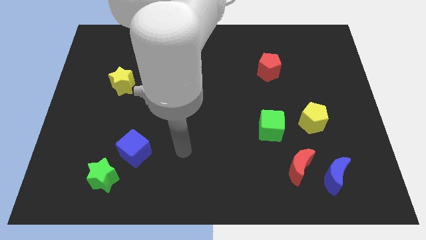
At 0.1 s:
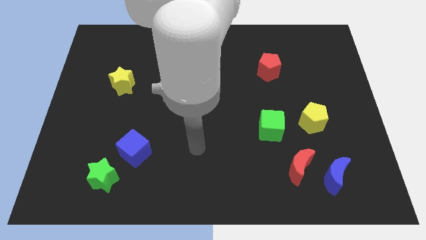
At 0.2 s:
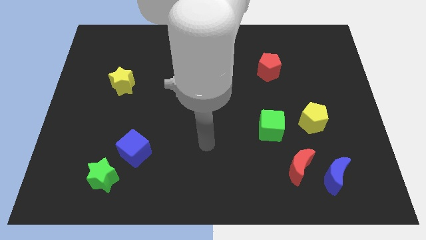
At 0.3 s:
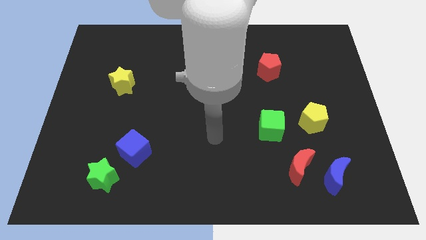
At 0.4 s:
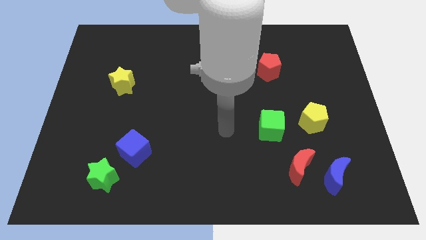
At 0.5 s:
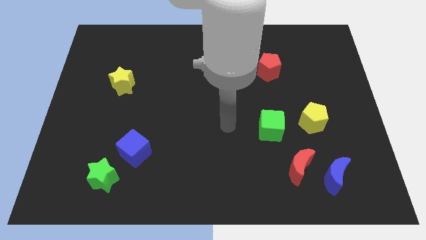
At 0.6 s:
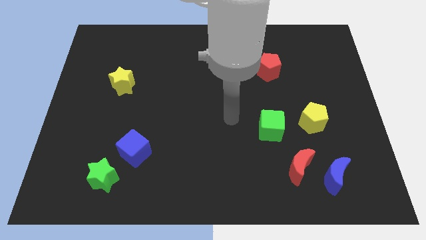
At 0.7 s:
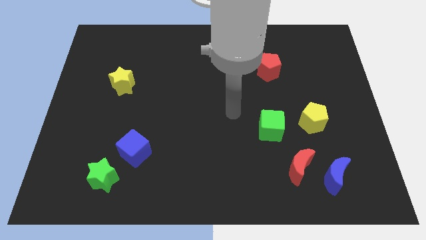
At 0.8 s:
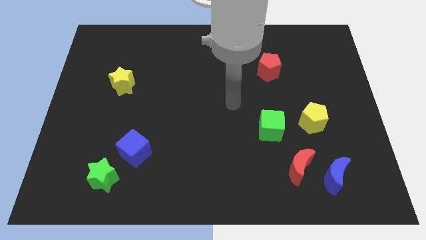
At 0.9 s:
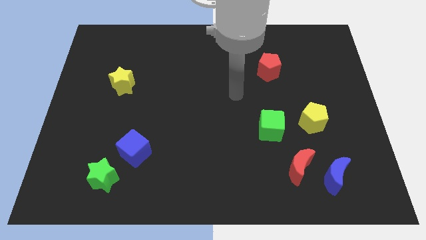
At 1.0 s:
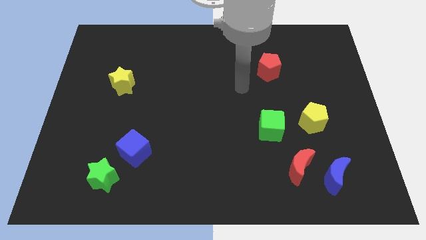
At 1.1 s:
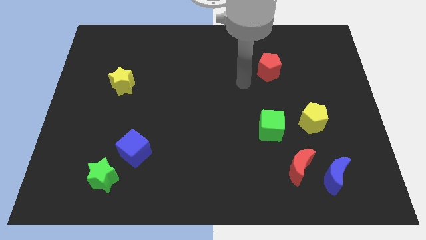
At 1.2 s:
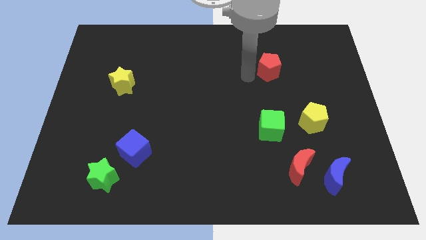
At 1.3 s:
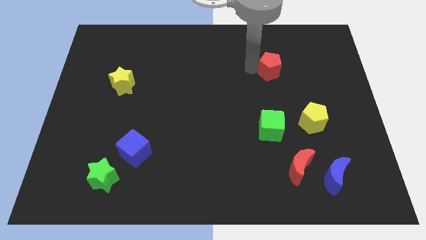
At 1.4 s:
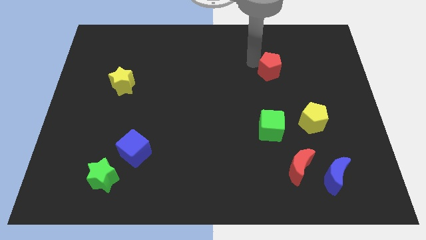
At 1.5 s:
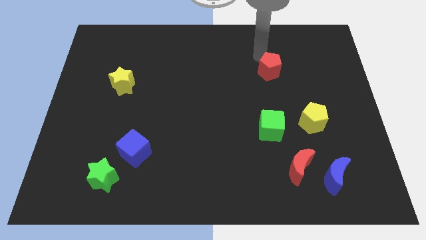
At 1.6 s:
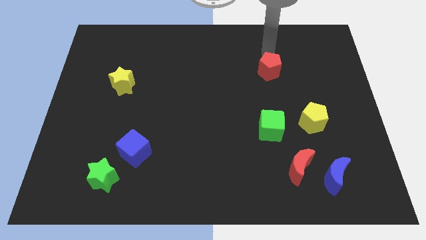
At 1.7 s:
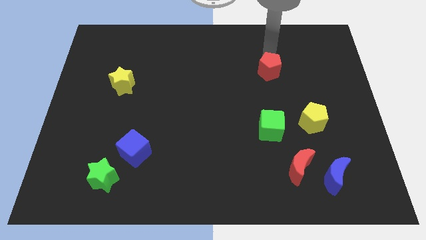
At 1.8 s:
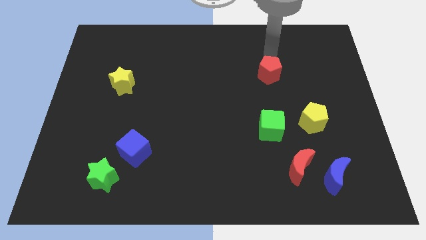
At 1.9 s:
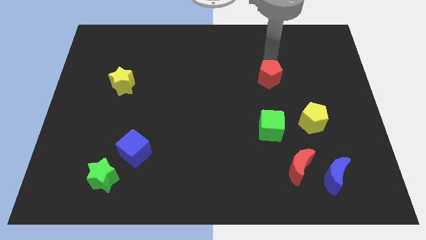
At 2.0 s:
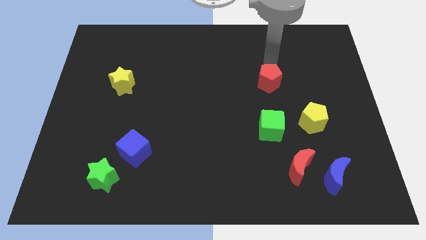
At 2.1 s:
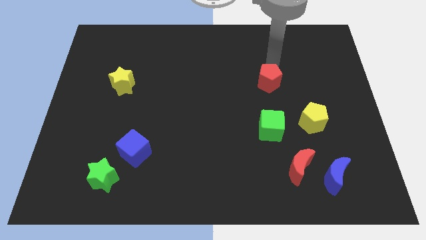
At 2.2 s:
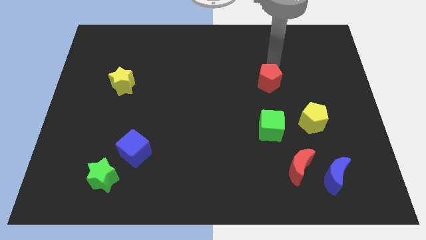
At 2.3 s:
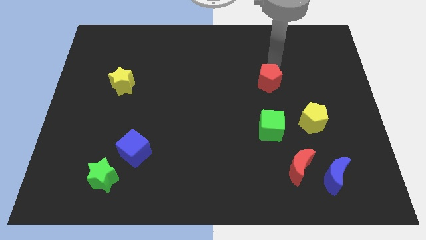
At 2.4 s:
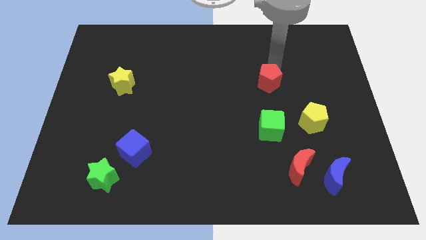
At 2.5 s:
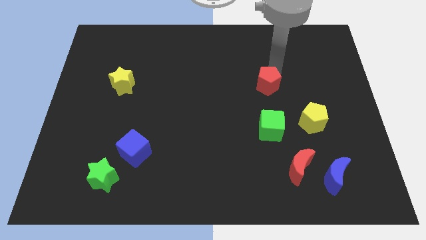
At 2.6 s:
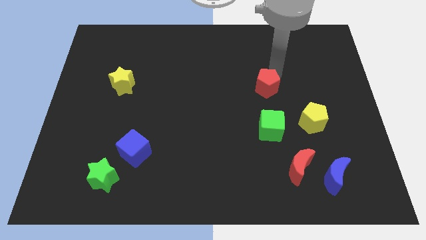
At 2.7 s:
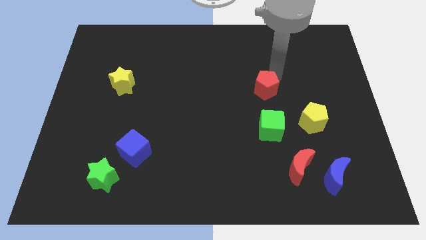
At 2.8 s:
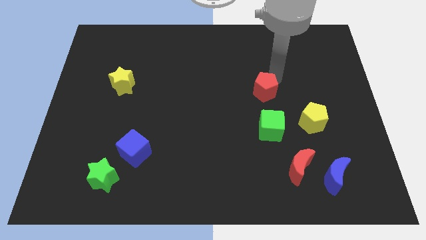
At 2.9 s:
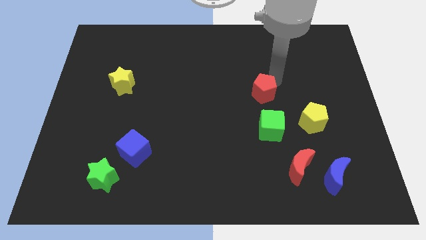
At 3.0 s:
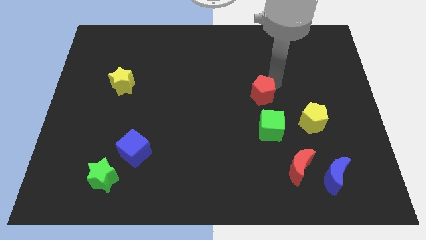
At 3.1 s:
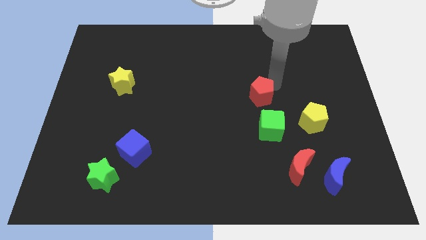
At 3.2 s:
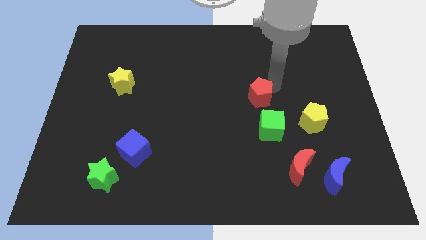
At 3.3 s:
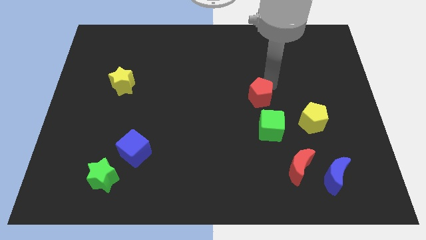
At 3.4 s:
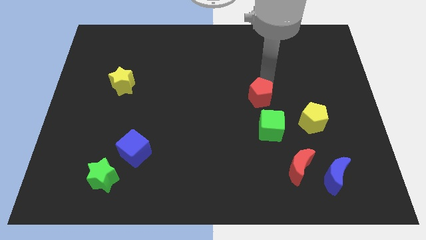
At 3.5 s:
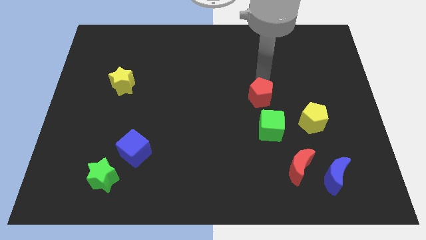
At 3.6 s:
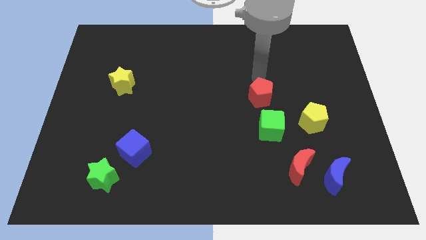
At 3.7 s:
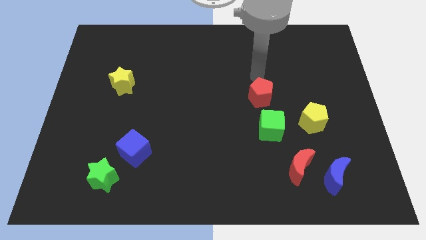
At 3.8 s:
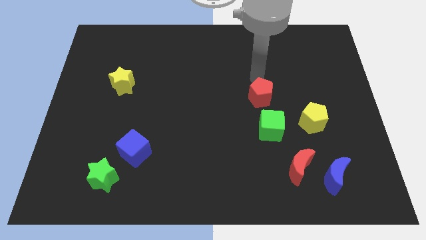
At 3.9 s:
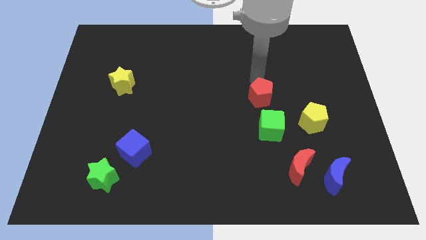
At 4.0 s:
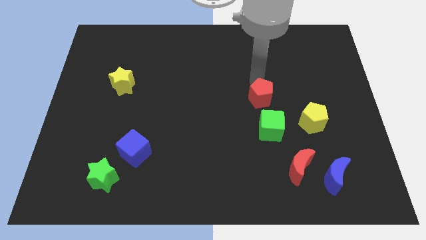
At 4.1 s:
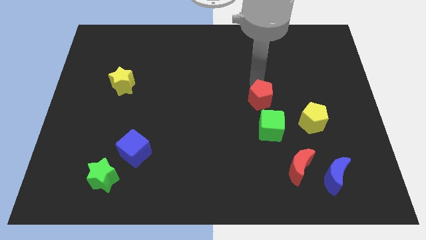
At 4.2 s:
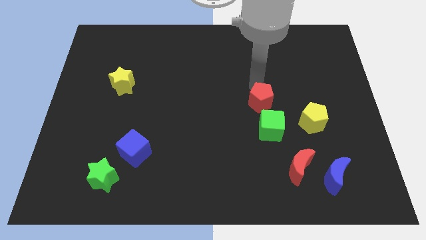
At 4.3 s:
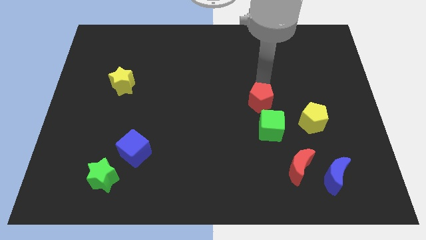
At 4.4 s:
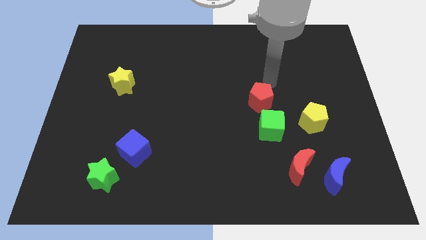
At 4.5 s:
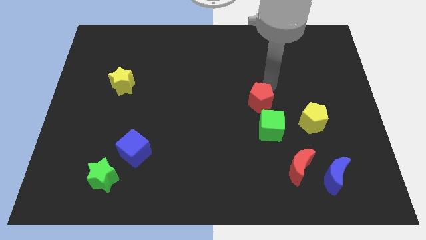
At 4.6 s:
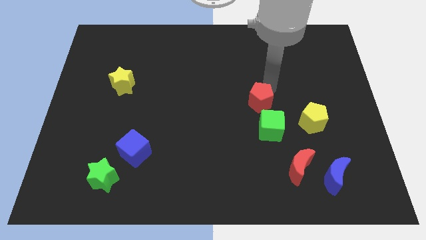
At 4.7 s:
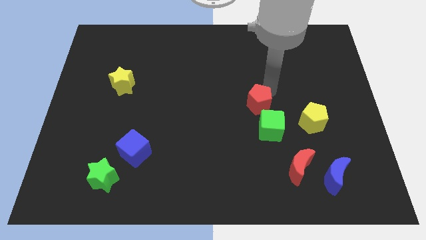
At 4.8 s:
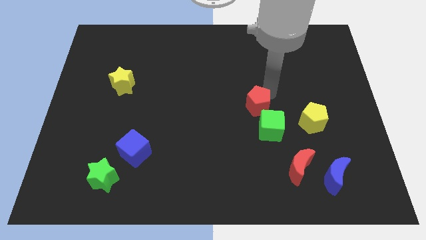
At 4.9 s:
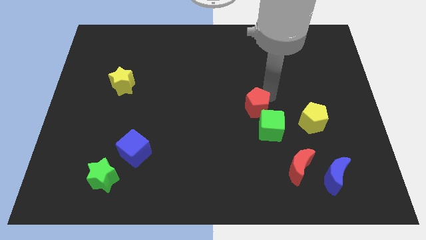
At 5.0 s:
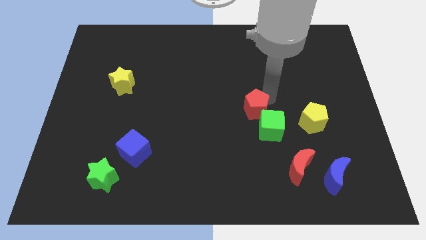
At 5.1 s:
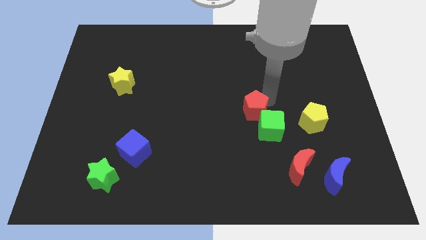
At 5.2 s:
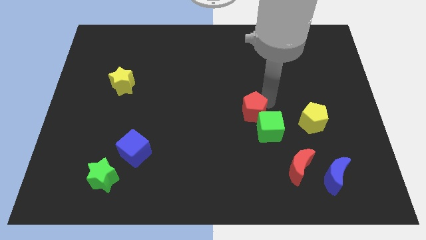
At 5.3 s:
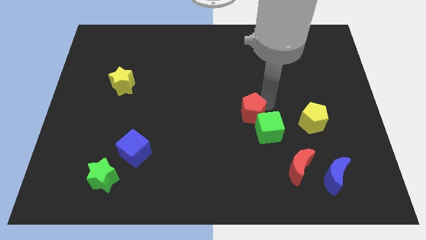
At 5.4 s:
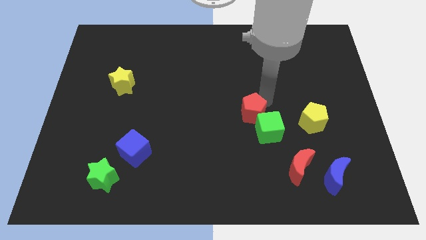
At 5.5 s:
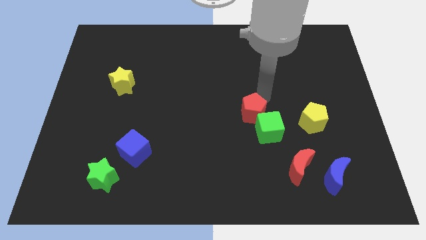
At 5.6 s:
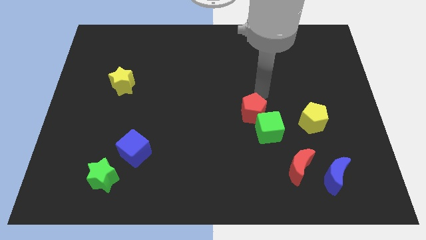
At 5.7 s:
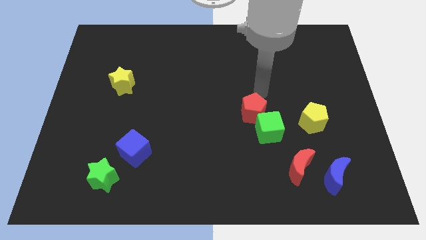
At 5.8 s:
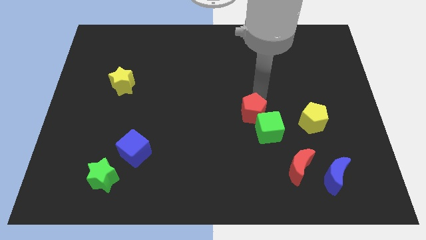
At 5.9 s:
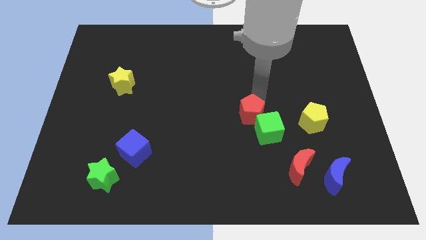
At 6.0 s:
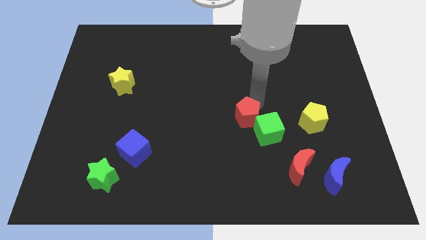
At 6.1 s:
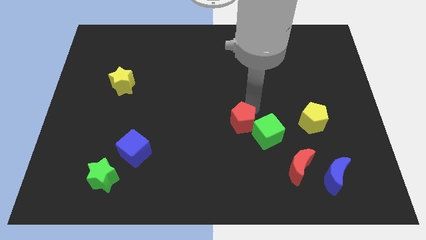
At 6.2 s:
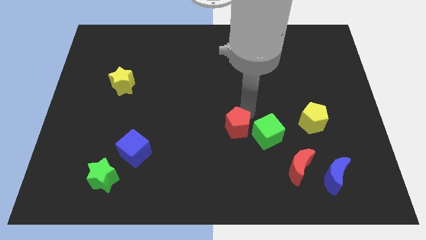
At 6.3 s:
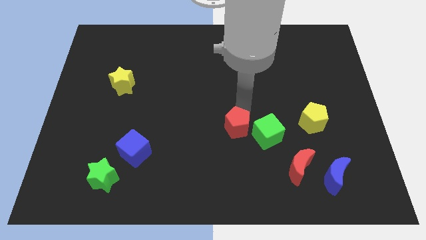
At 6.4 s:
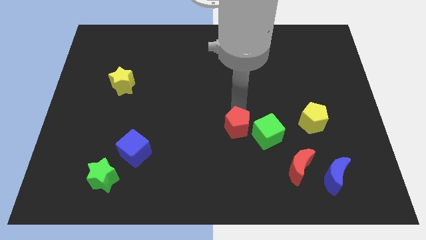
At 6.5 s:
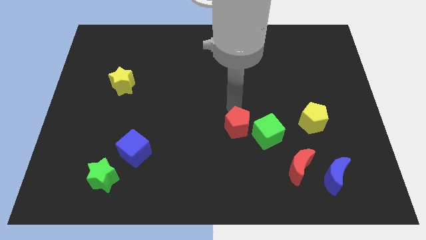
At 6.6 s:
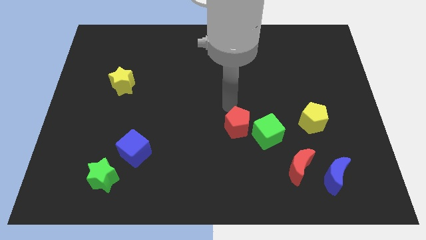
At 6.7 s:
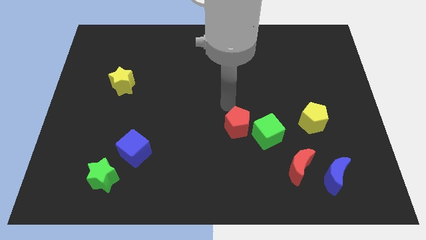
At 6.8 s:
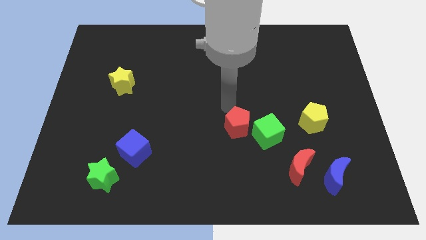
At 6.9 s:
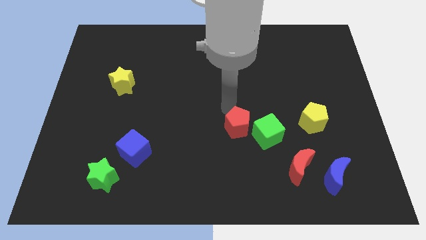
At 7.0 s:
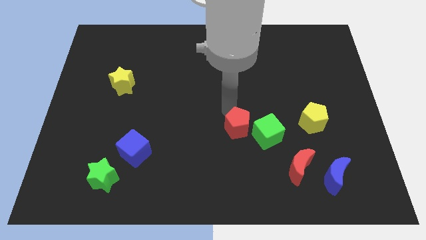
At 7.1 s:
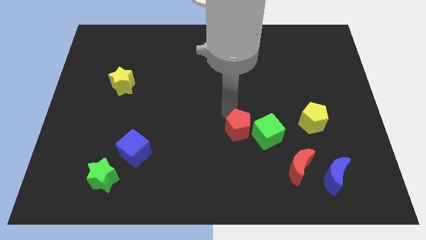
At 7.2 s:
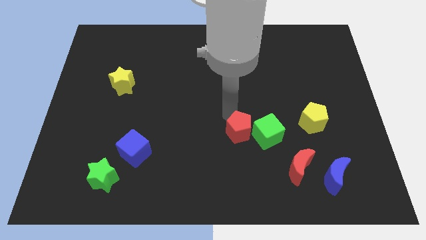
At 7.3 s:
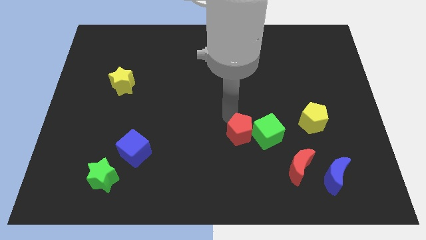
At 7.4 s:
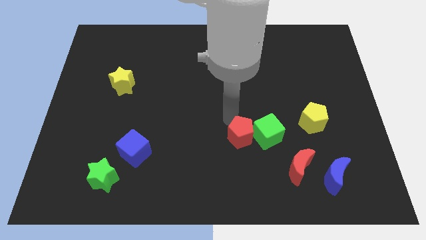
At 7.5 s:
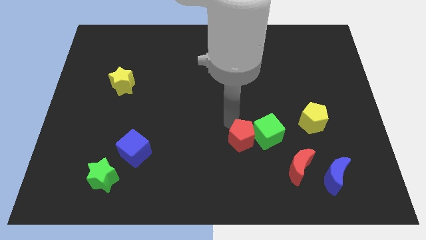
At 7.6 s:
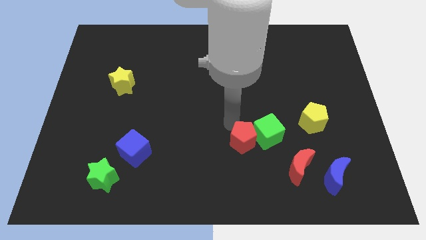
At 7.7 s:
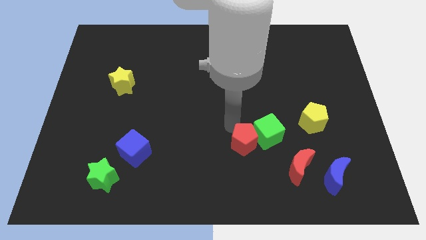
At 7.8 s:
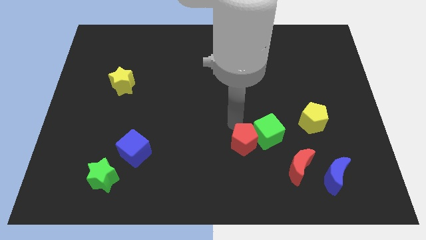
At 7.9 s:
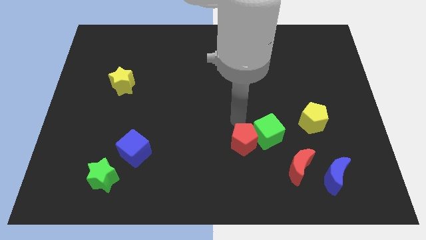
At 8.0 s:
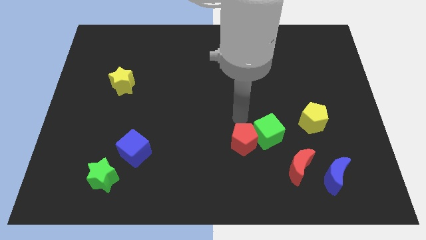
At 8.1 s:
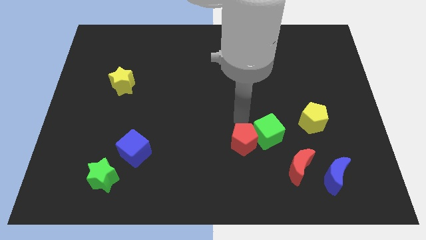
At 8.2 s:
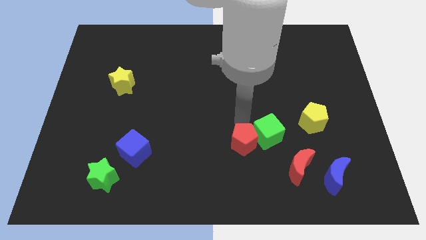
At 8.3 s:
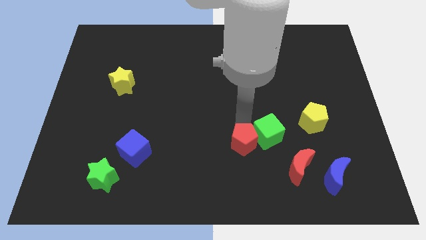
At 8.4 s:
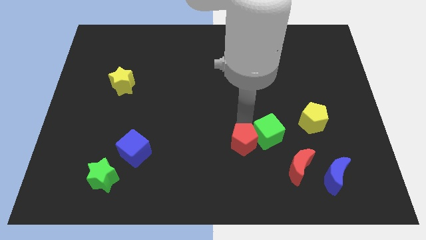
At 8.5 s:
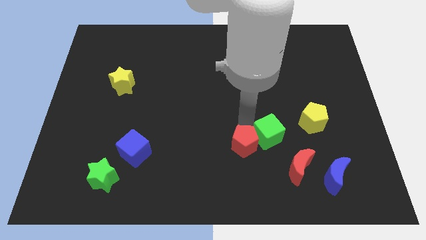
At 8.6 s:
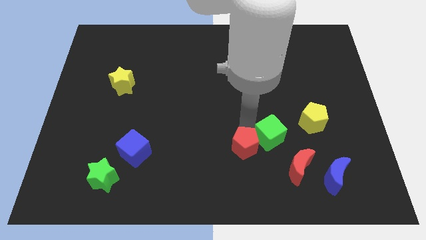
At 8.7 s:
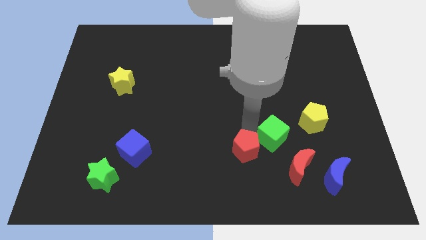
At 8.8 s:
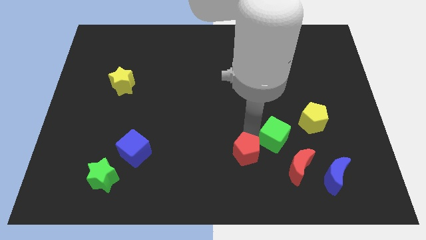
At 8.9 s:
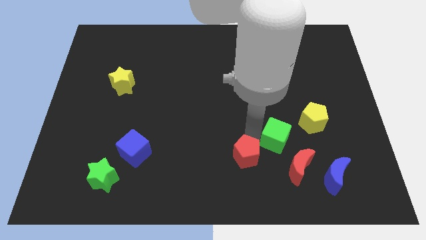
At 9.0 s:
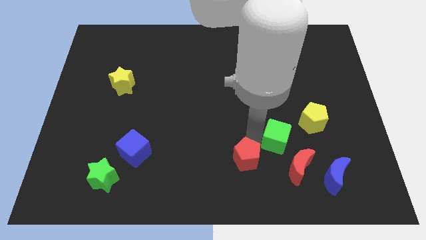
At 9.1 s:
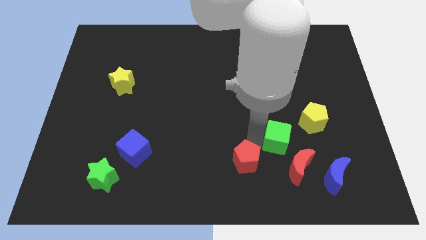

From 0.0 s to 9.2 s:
slide the red pentagon to the bottom side
